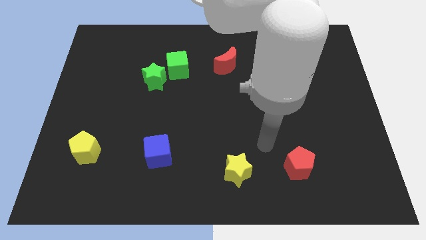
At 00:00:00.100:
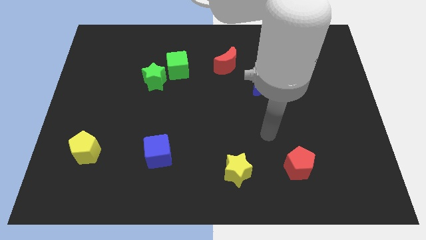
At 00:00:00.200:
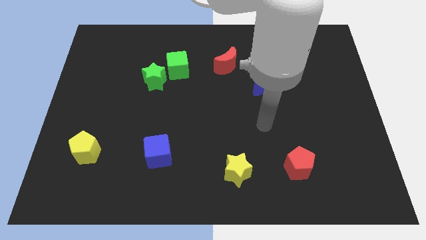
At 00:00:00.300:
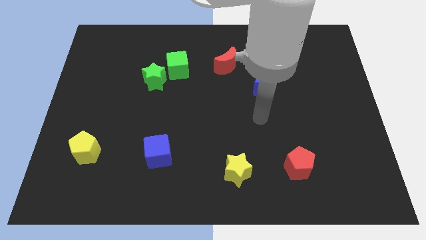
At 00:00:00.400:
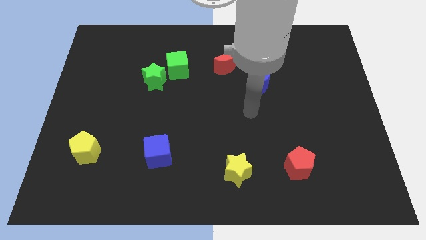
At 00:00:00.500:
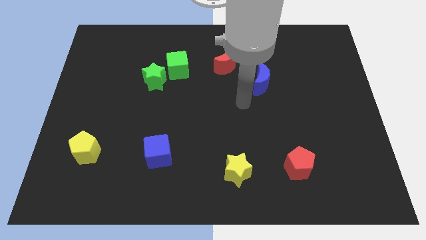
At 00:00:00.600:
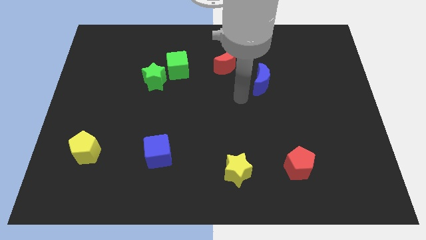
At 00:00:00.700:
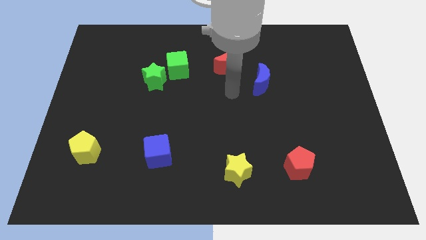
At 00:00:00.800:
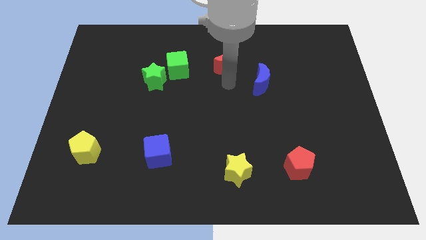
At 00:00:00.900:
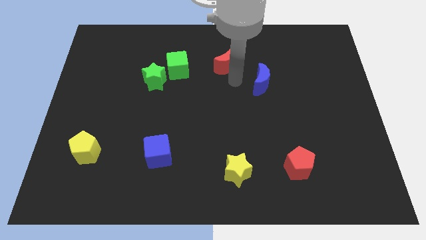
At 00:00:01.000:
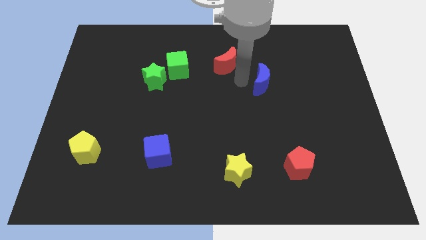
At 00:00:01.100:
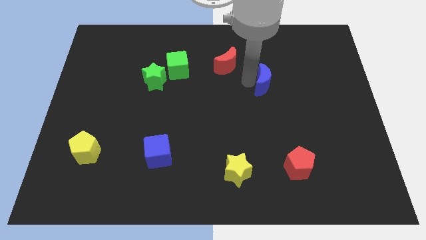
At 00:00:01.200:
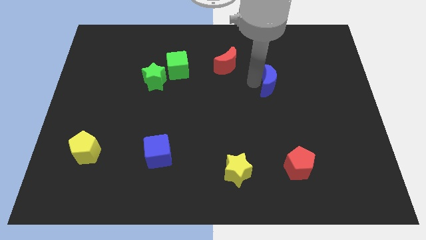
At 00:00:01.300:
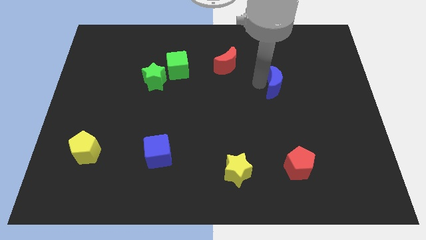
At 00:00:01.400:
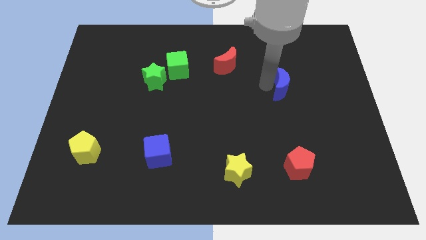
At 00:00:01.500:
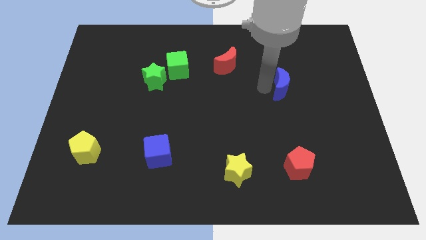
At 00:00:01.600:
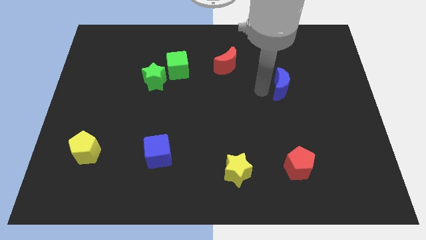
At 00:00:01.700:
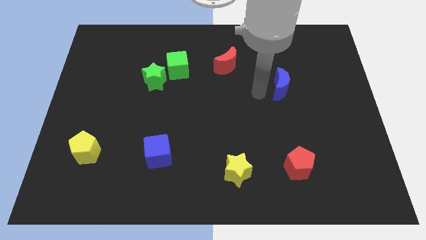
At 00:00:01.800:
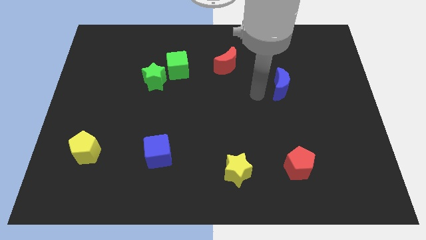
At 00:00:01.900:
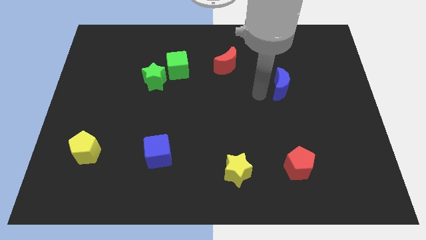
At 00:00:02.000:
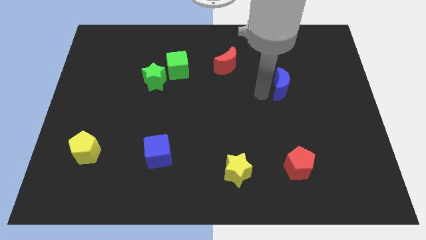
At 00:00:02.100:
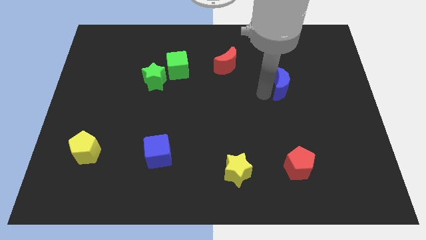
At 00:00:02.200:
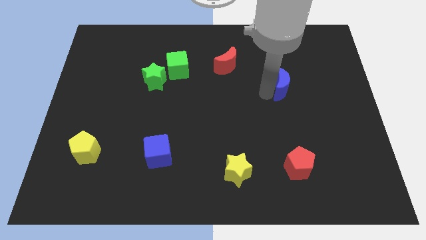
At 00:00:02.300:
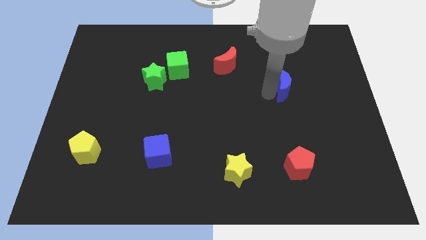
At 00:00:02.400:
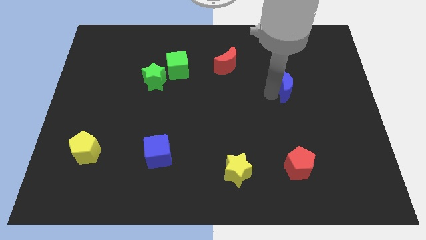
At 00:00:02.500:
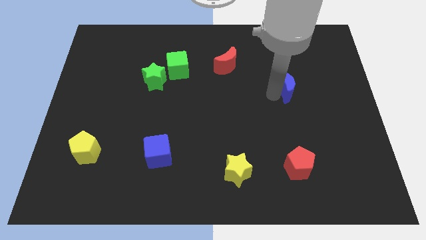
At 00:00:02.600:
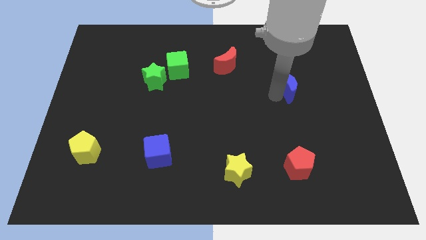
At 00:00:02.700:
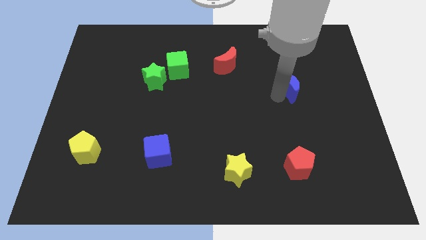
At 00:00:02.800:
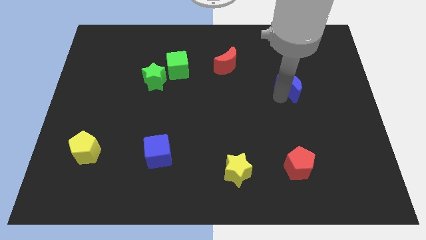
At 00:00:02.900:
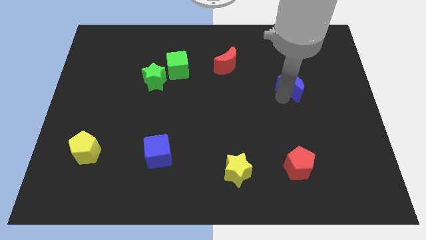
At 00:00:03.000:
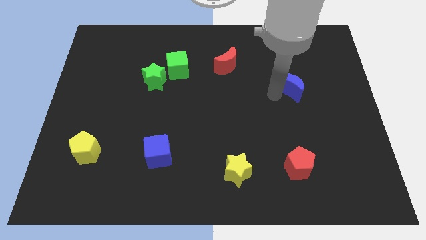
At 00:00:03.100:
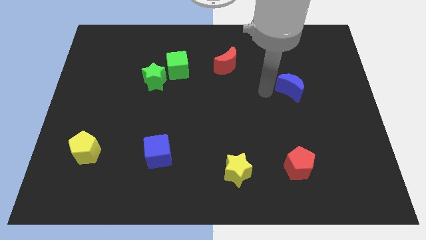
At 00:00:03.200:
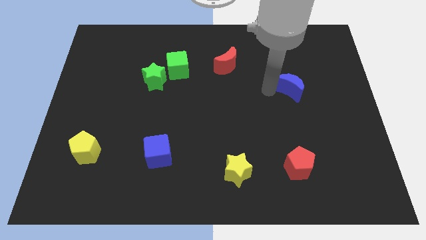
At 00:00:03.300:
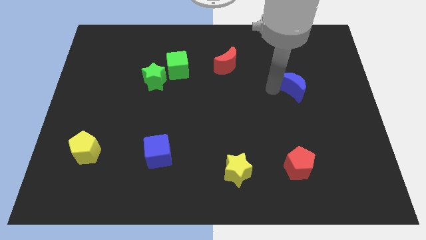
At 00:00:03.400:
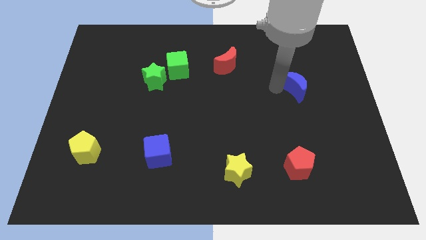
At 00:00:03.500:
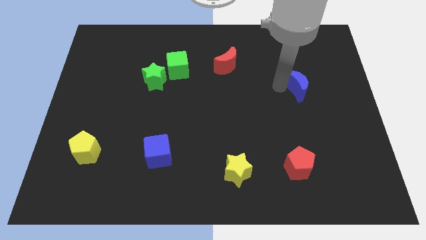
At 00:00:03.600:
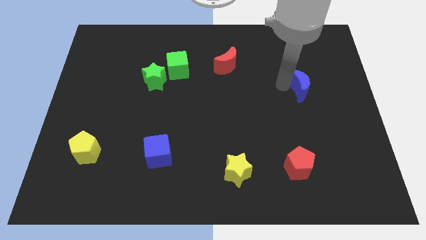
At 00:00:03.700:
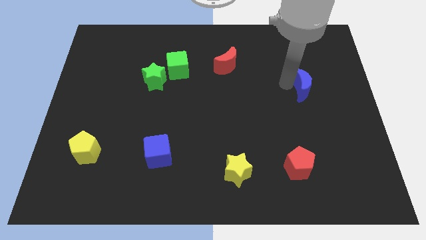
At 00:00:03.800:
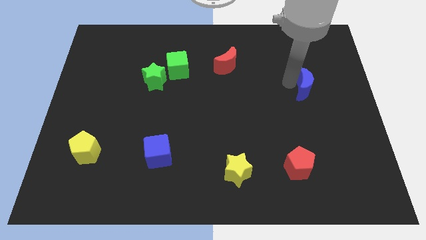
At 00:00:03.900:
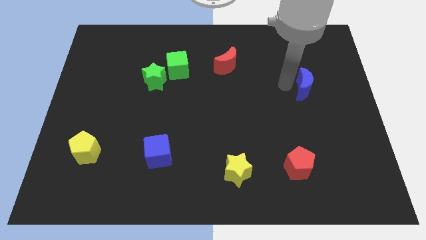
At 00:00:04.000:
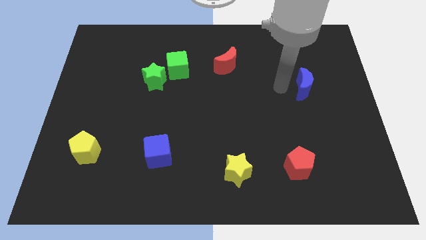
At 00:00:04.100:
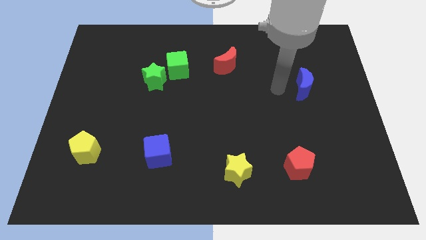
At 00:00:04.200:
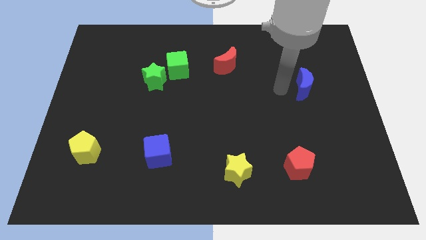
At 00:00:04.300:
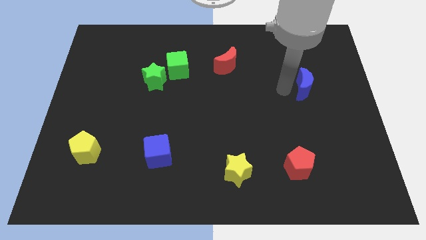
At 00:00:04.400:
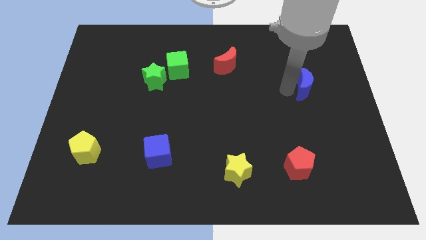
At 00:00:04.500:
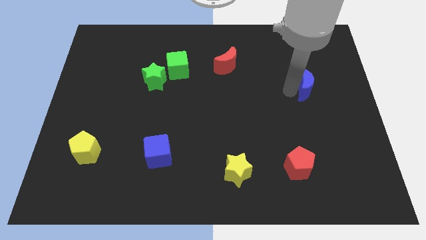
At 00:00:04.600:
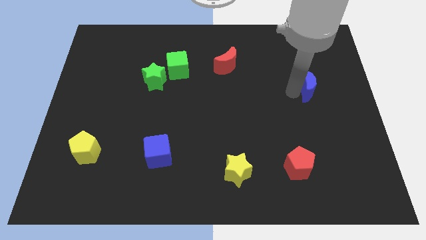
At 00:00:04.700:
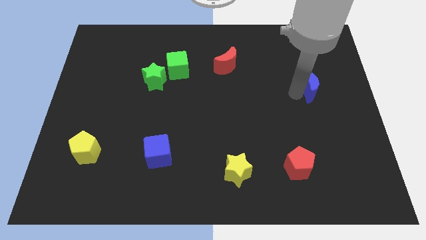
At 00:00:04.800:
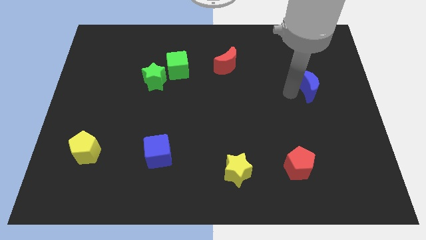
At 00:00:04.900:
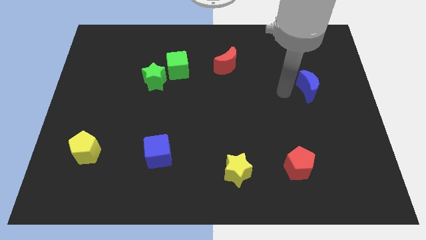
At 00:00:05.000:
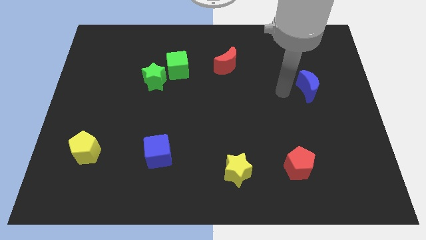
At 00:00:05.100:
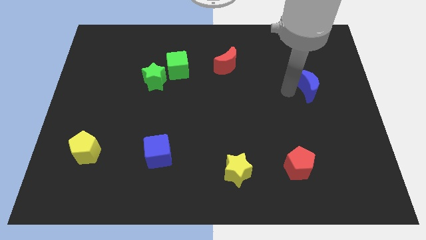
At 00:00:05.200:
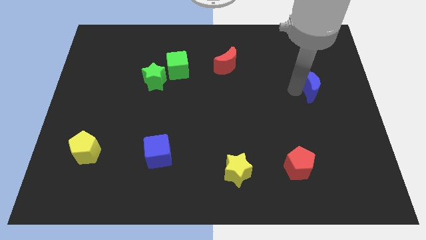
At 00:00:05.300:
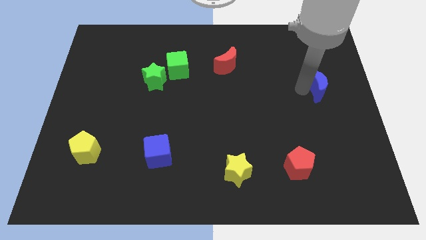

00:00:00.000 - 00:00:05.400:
push the blue moon to the right side of the board
